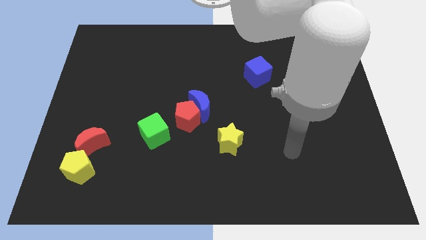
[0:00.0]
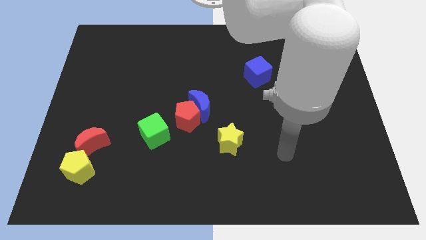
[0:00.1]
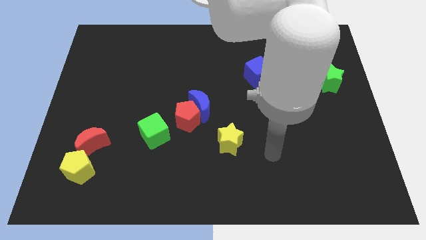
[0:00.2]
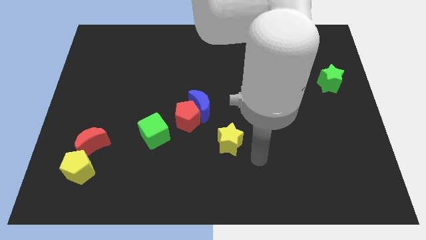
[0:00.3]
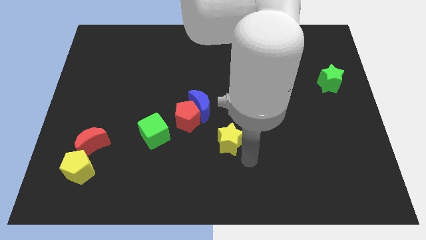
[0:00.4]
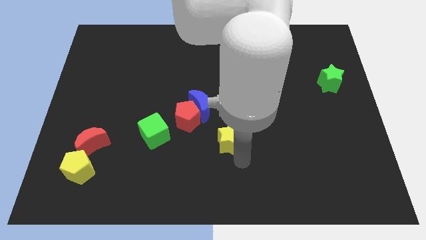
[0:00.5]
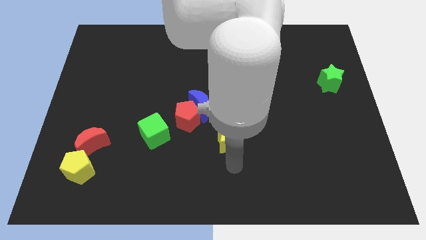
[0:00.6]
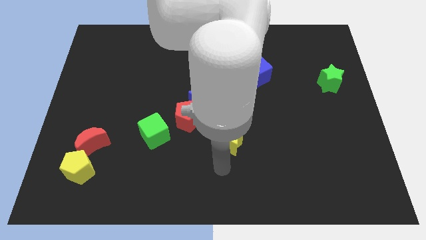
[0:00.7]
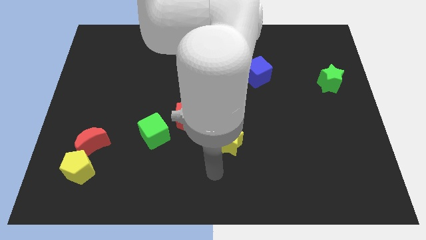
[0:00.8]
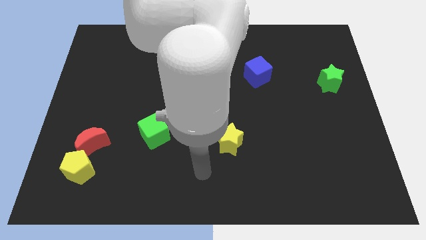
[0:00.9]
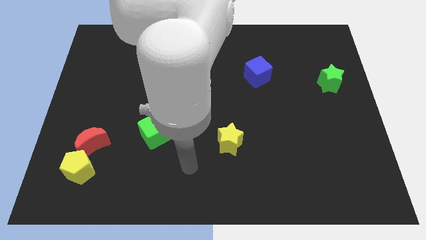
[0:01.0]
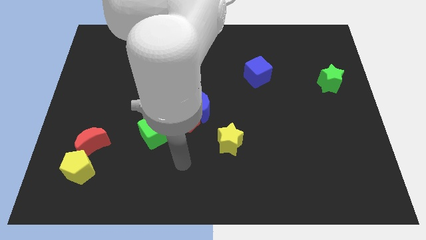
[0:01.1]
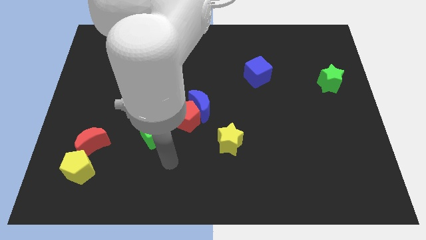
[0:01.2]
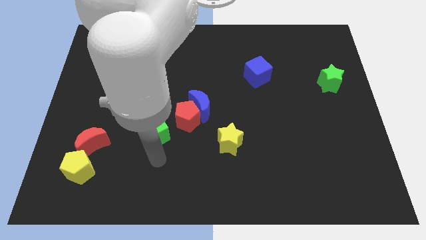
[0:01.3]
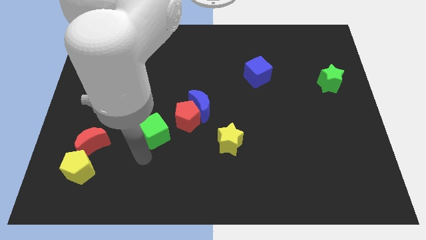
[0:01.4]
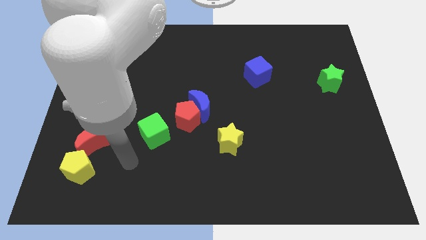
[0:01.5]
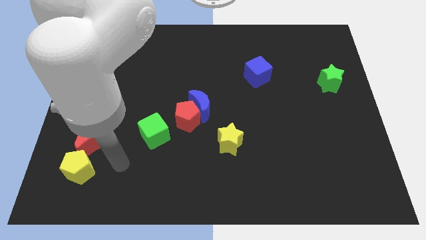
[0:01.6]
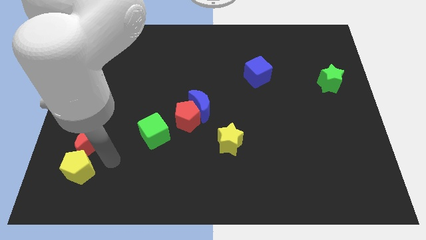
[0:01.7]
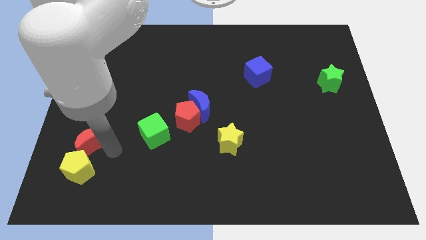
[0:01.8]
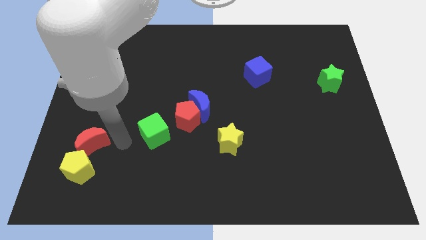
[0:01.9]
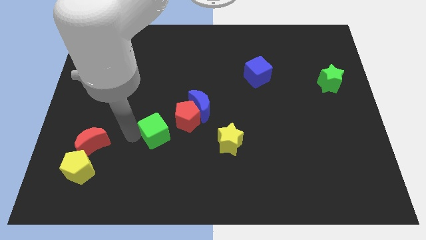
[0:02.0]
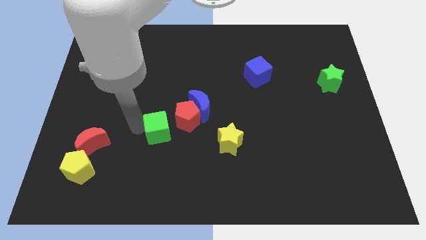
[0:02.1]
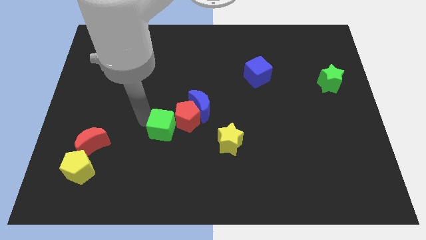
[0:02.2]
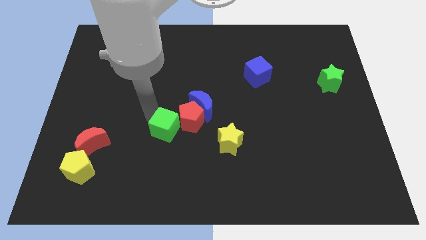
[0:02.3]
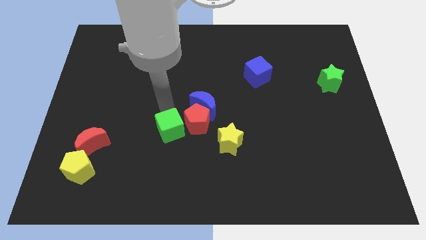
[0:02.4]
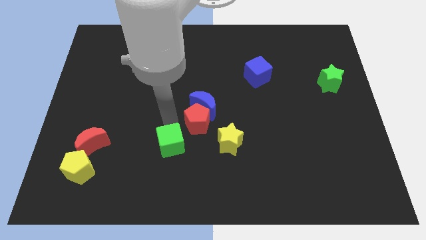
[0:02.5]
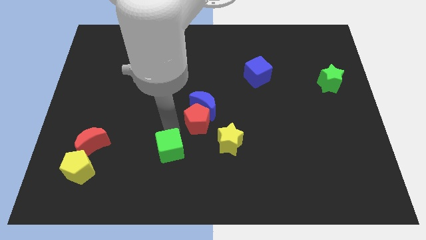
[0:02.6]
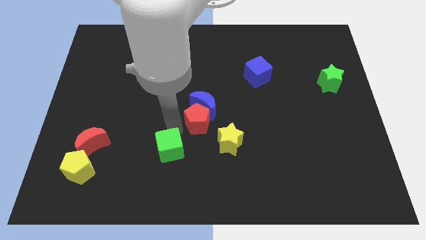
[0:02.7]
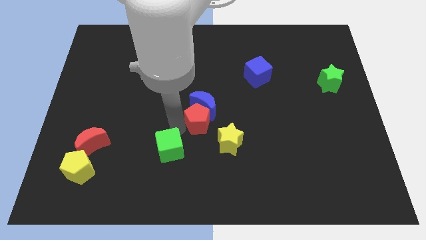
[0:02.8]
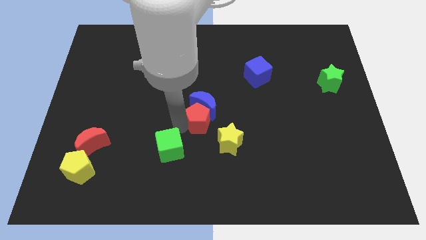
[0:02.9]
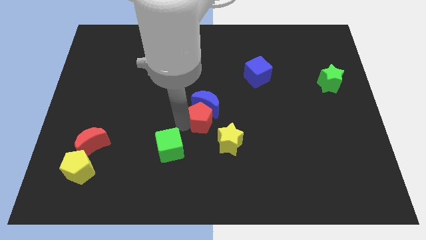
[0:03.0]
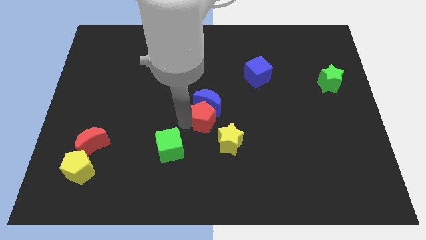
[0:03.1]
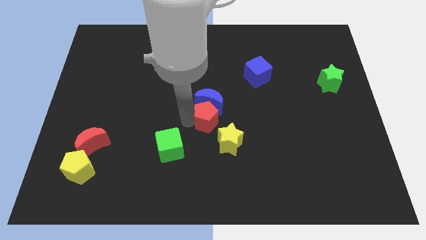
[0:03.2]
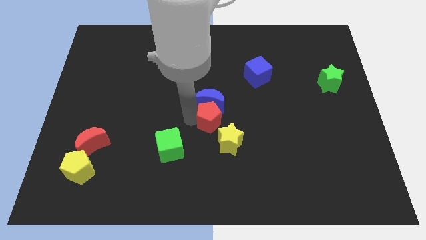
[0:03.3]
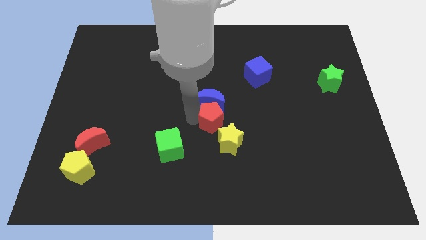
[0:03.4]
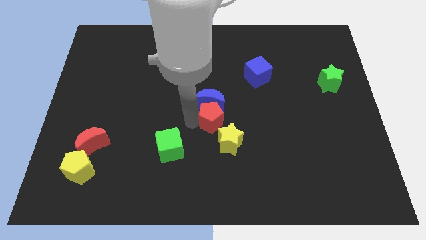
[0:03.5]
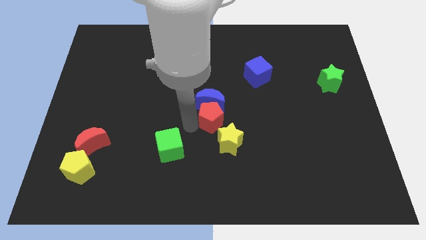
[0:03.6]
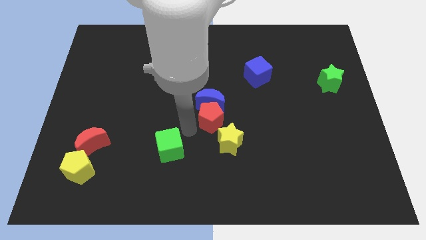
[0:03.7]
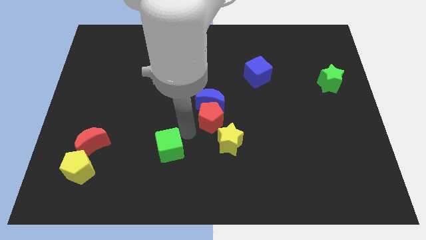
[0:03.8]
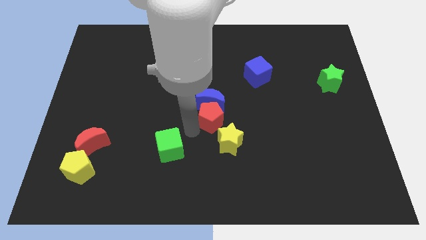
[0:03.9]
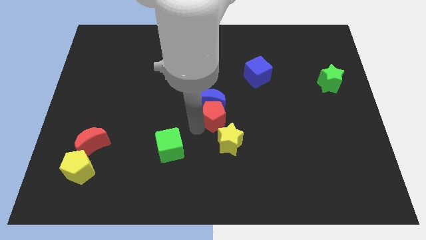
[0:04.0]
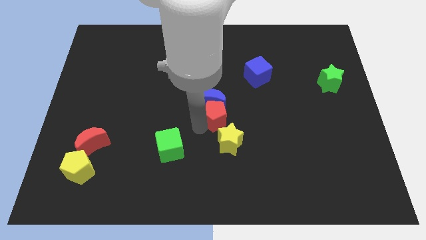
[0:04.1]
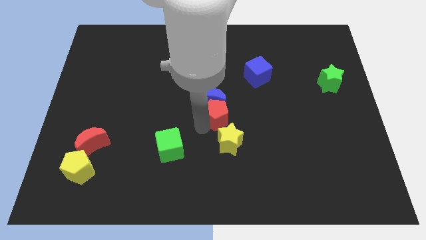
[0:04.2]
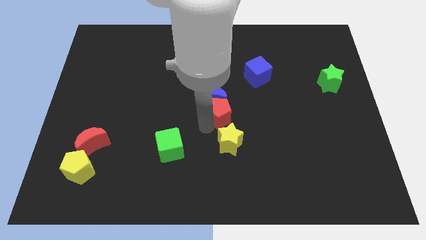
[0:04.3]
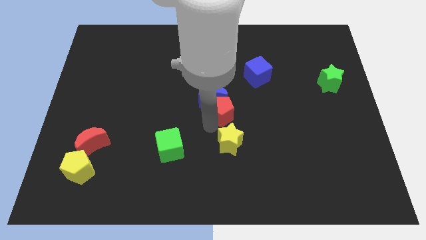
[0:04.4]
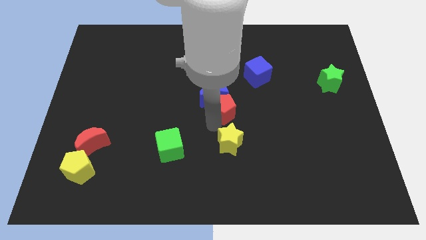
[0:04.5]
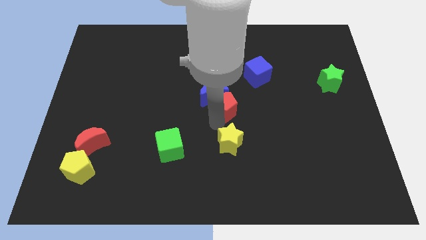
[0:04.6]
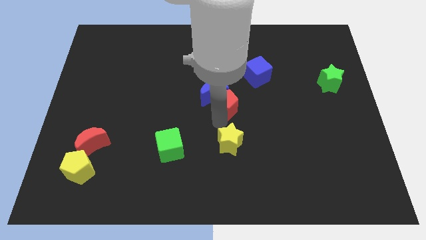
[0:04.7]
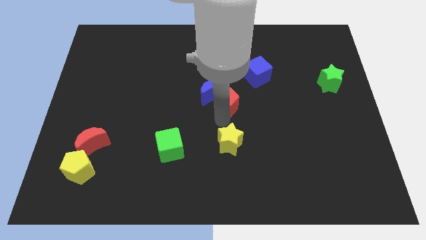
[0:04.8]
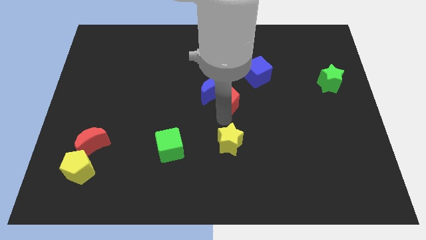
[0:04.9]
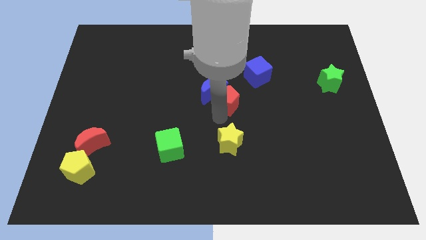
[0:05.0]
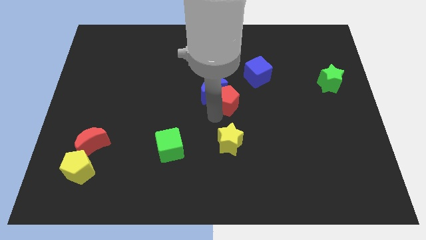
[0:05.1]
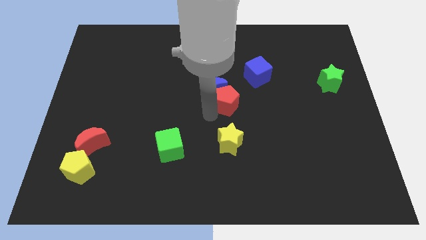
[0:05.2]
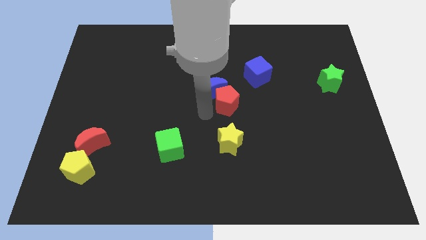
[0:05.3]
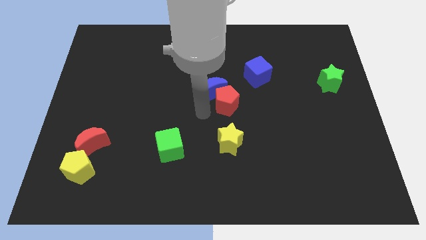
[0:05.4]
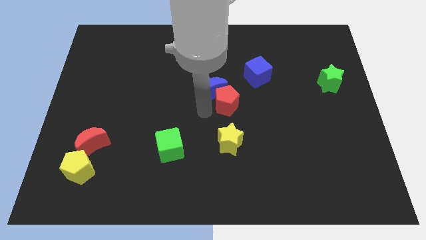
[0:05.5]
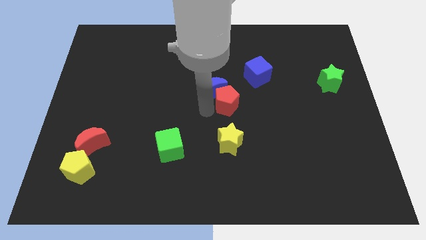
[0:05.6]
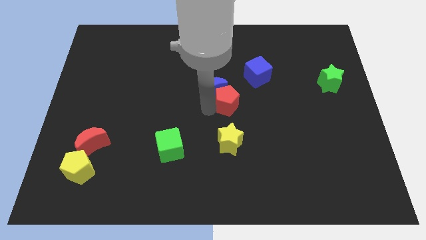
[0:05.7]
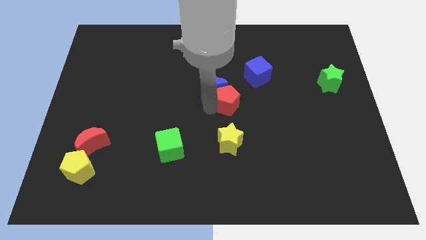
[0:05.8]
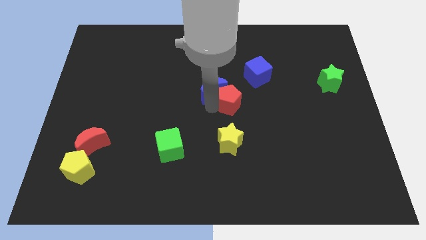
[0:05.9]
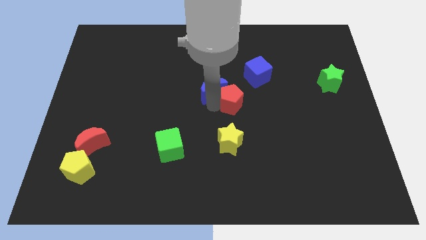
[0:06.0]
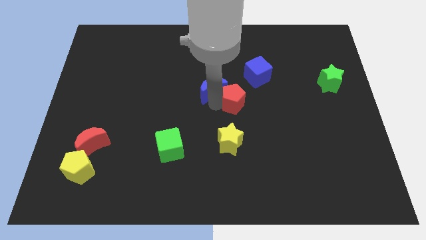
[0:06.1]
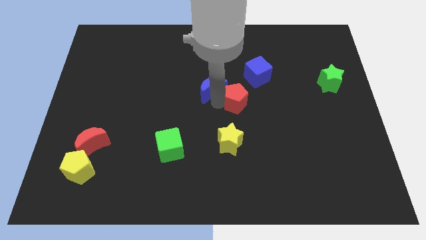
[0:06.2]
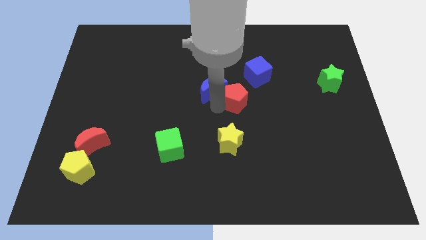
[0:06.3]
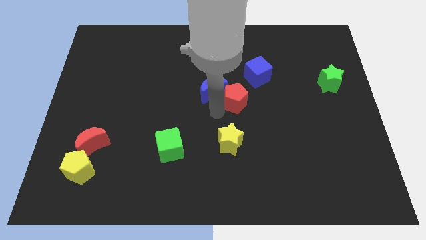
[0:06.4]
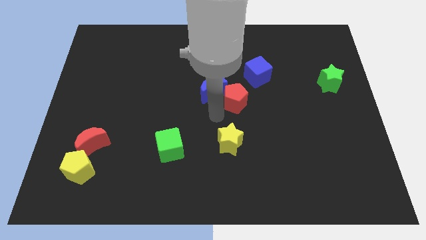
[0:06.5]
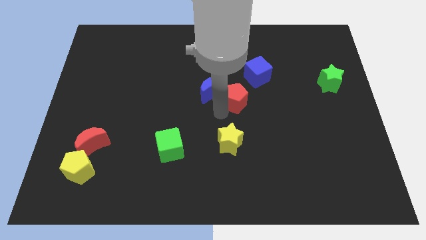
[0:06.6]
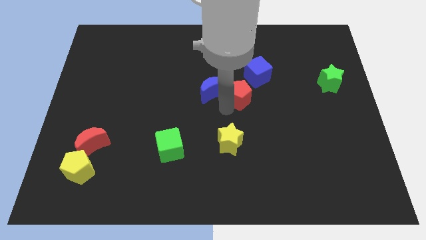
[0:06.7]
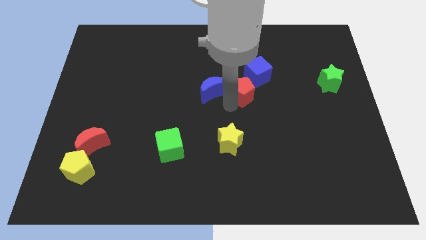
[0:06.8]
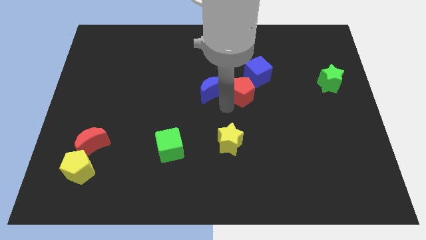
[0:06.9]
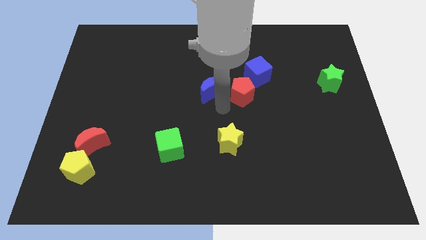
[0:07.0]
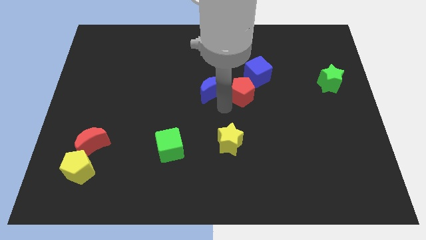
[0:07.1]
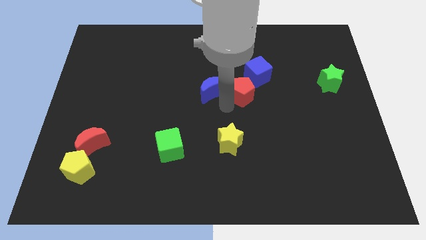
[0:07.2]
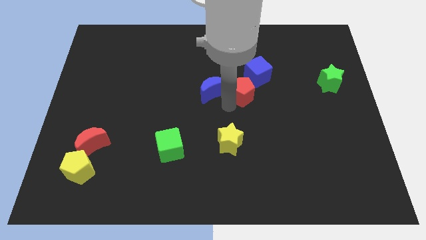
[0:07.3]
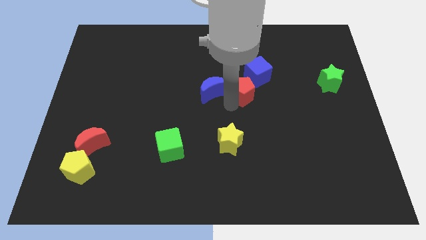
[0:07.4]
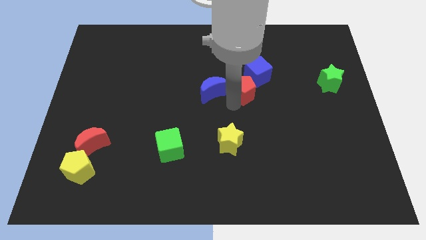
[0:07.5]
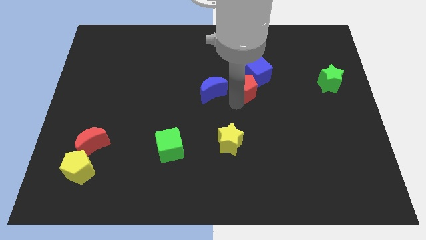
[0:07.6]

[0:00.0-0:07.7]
slide the red pentagon close to the blue cube

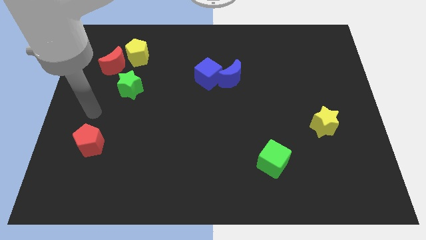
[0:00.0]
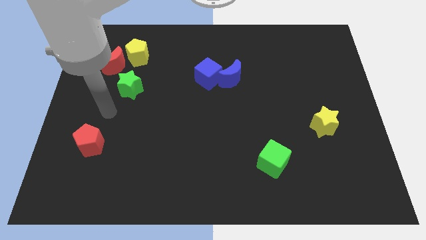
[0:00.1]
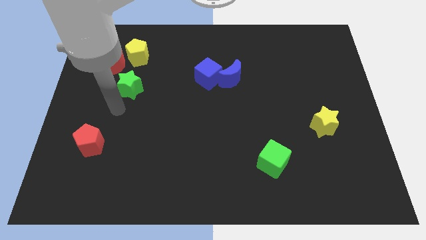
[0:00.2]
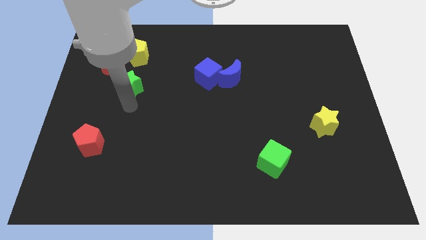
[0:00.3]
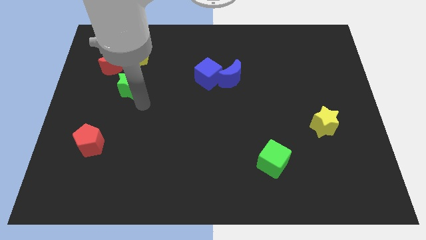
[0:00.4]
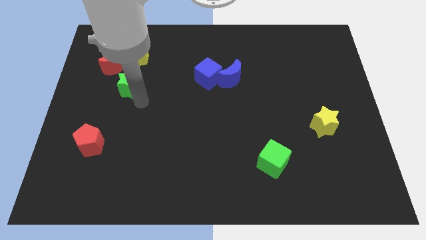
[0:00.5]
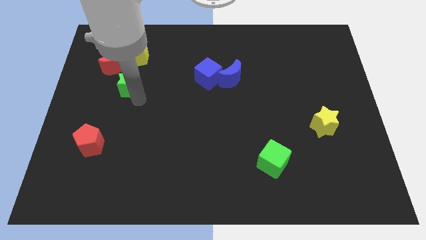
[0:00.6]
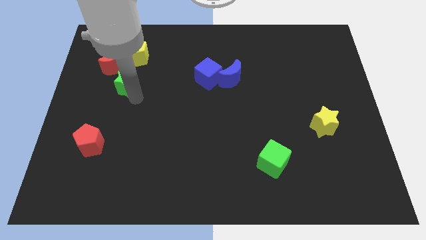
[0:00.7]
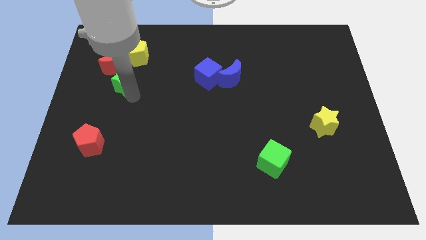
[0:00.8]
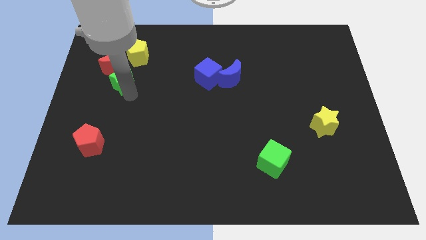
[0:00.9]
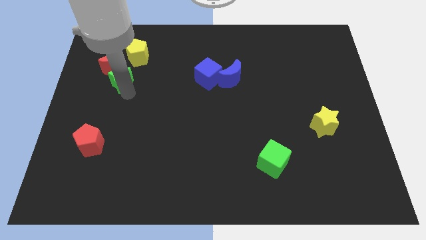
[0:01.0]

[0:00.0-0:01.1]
move the green star towards the red moon
